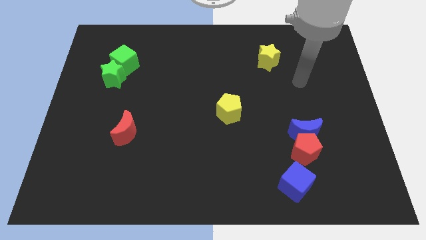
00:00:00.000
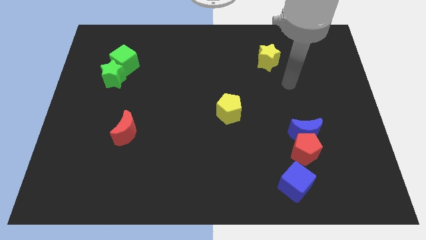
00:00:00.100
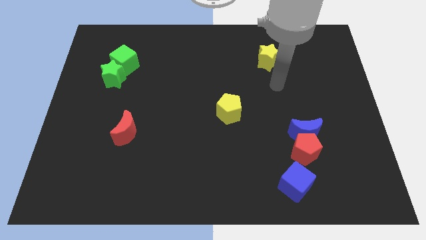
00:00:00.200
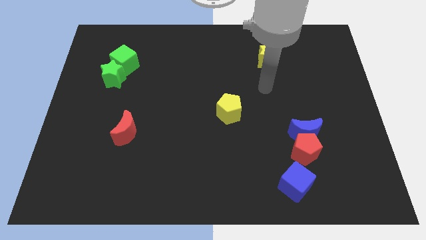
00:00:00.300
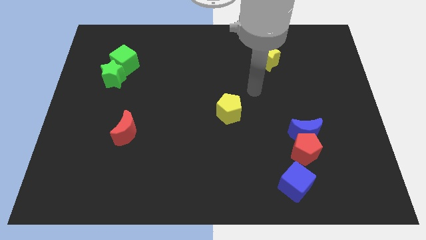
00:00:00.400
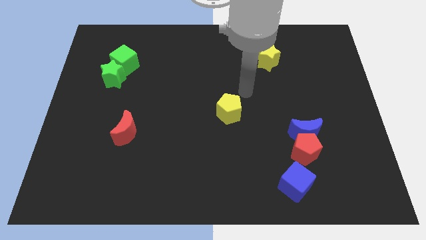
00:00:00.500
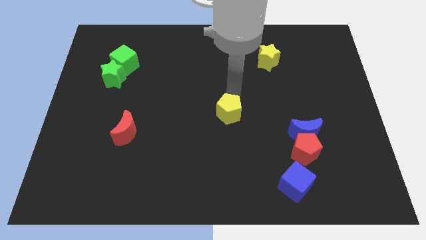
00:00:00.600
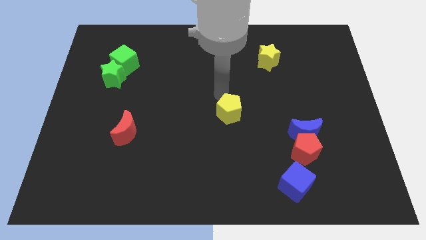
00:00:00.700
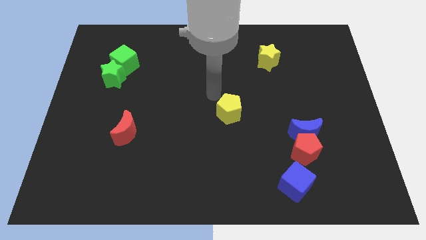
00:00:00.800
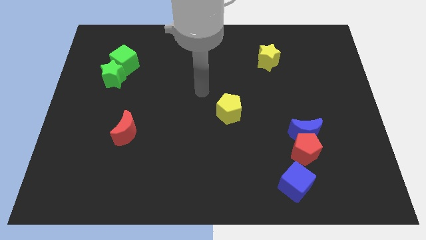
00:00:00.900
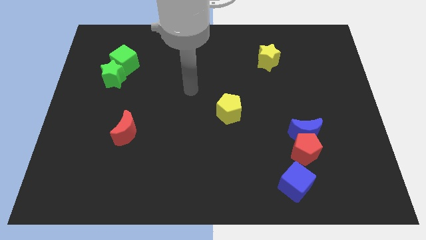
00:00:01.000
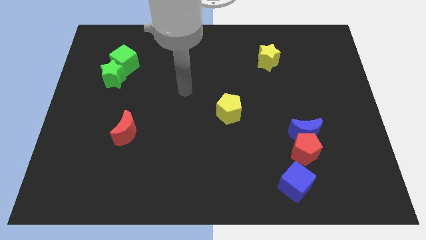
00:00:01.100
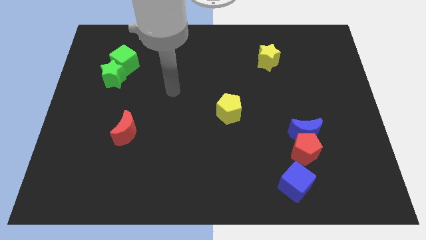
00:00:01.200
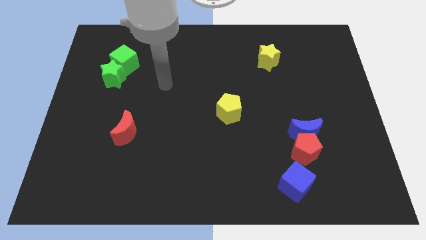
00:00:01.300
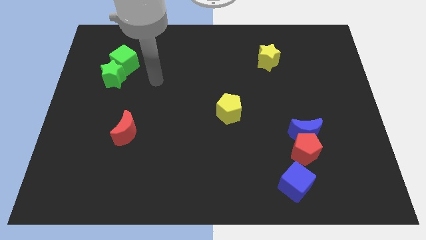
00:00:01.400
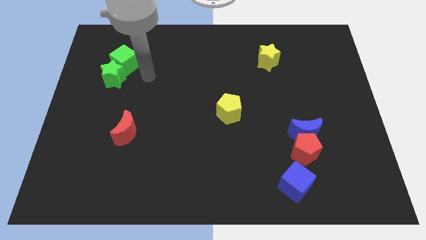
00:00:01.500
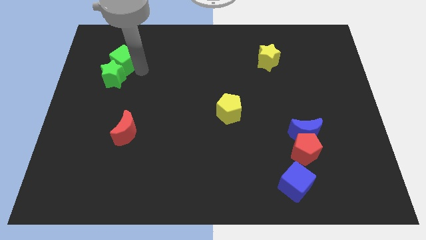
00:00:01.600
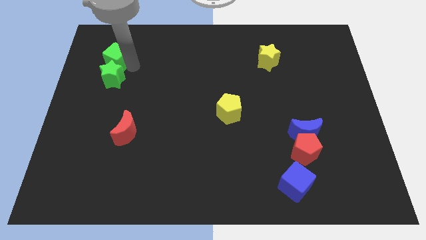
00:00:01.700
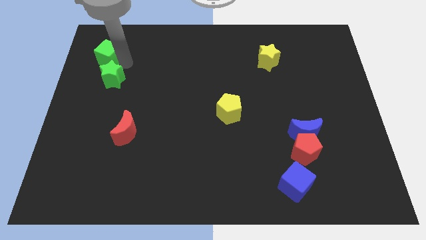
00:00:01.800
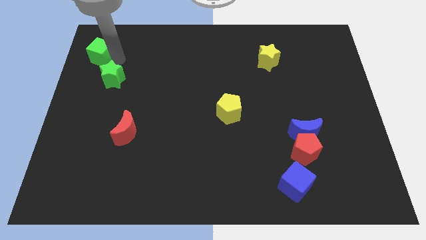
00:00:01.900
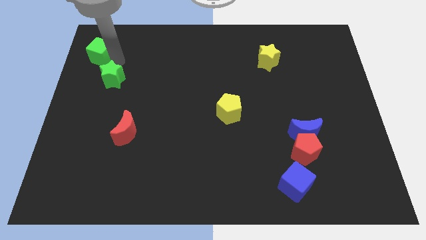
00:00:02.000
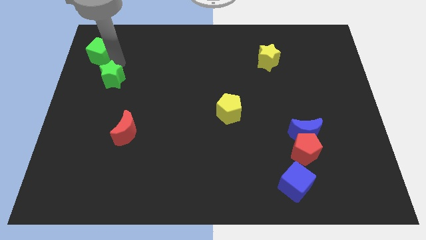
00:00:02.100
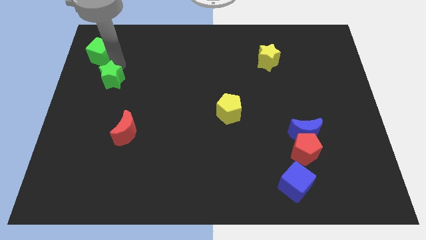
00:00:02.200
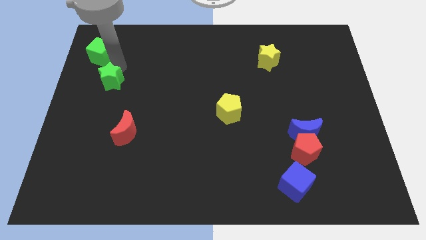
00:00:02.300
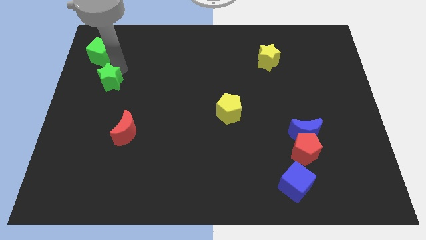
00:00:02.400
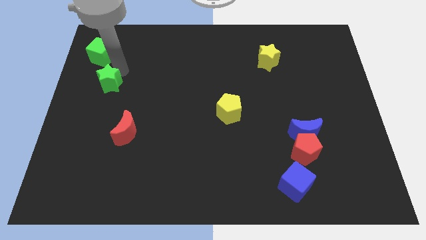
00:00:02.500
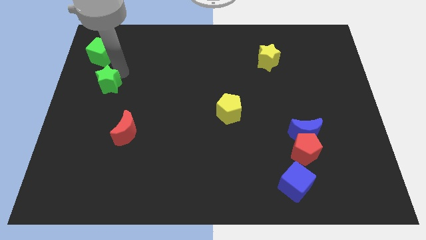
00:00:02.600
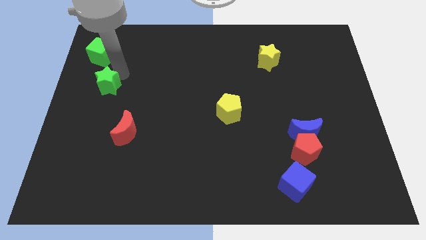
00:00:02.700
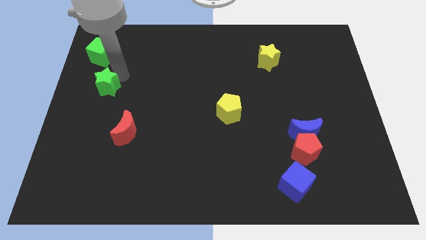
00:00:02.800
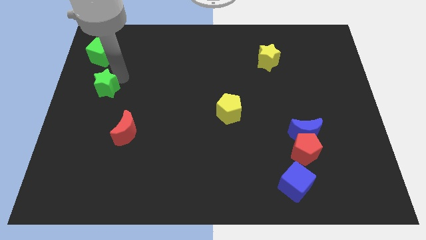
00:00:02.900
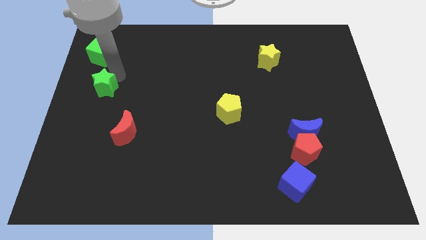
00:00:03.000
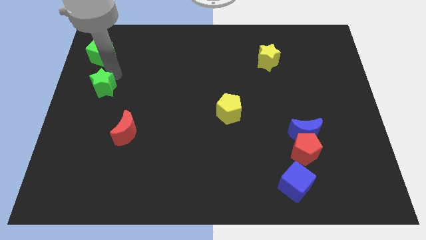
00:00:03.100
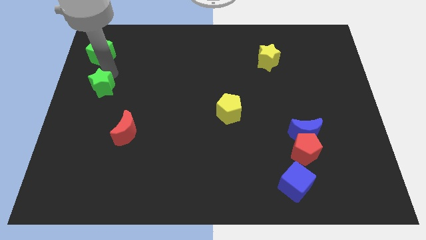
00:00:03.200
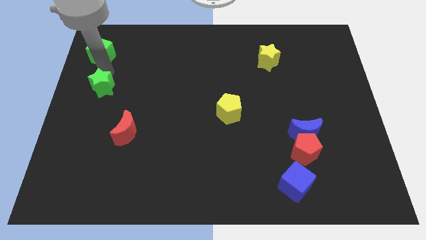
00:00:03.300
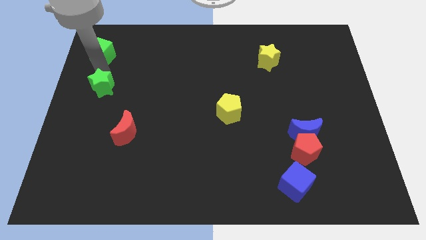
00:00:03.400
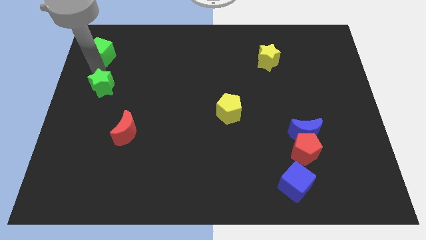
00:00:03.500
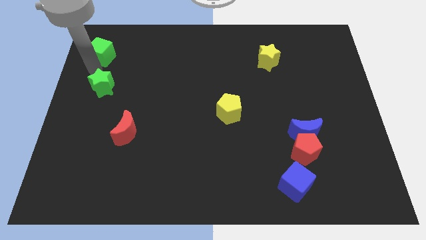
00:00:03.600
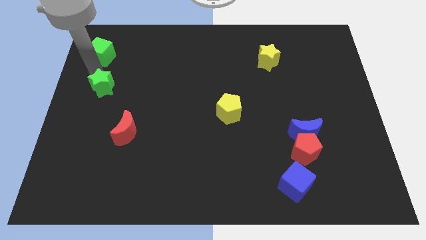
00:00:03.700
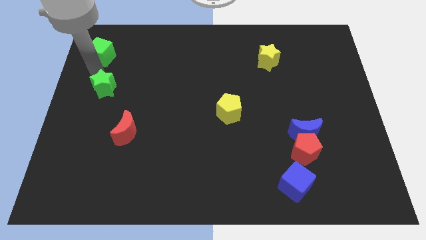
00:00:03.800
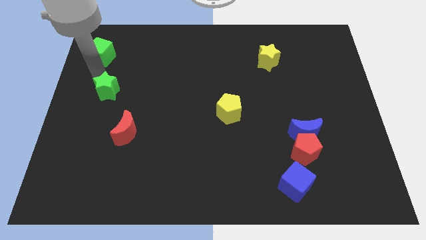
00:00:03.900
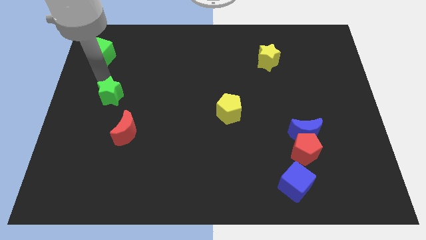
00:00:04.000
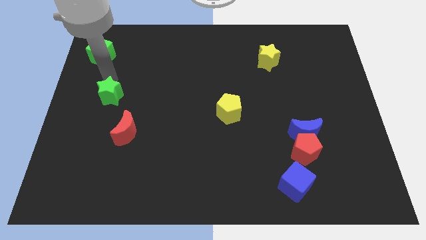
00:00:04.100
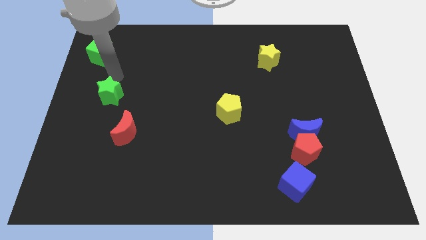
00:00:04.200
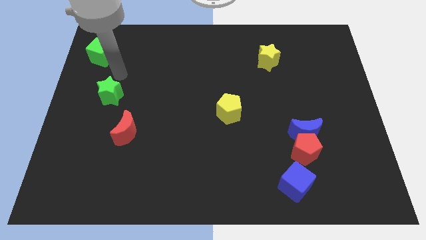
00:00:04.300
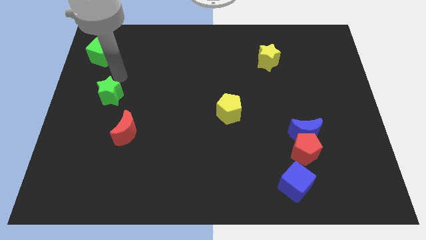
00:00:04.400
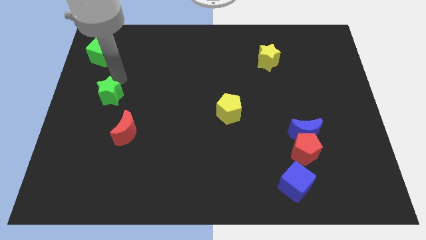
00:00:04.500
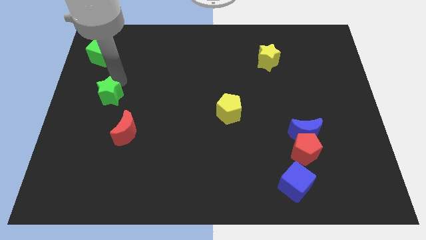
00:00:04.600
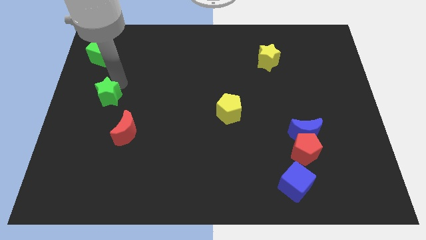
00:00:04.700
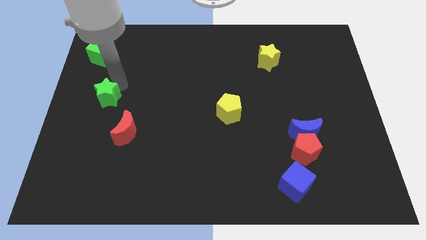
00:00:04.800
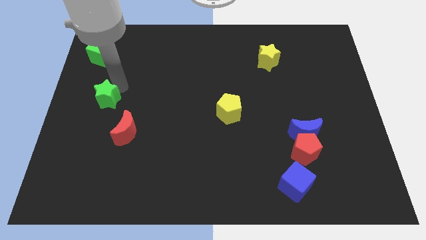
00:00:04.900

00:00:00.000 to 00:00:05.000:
slide the green star a bit downwards

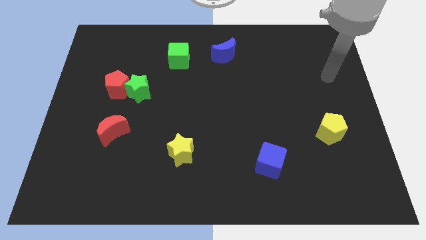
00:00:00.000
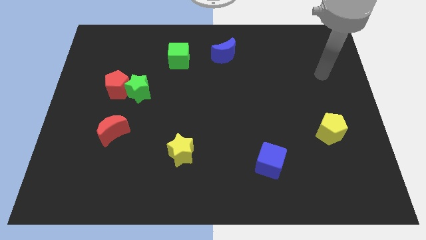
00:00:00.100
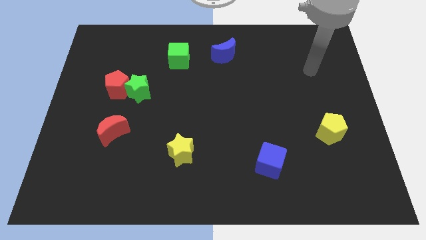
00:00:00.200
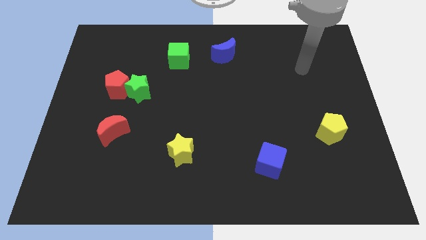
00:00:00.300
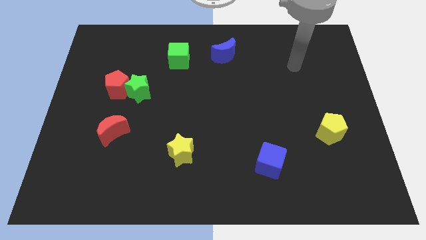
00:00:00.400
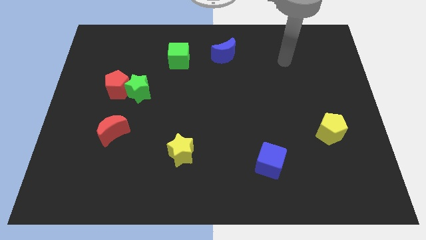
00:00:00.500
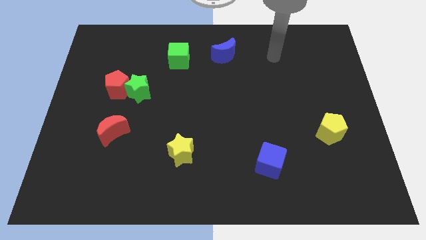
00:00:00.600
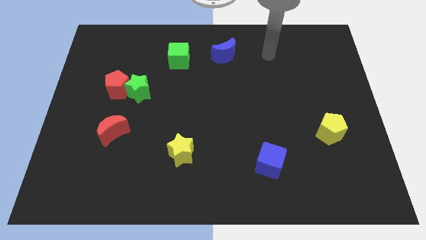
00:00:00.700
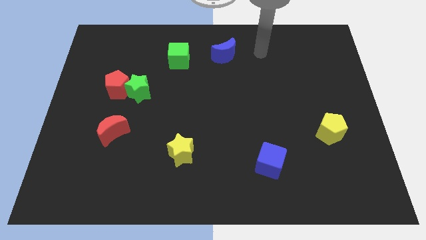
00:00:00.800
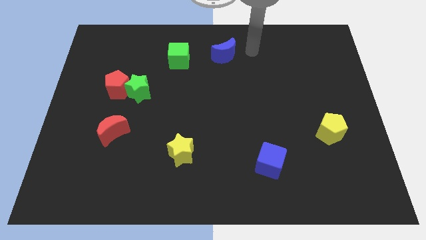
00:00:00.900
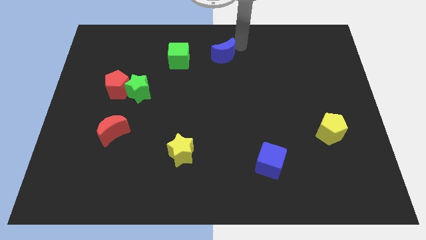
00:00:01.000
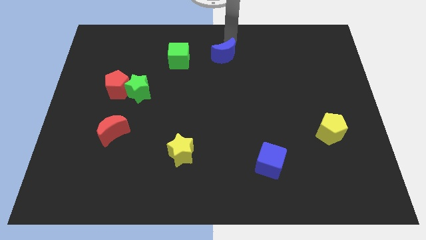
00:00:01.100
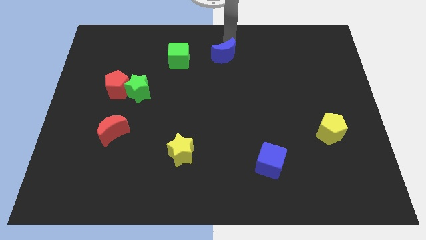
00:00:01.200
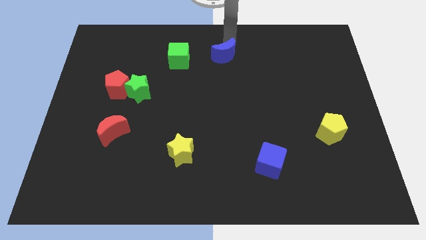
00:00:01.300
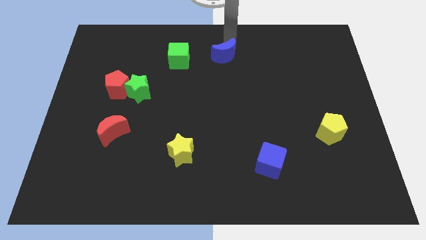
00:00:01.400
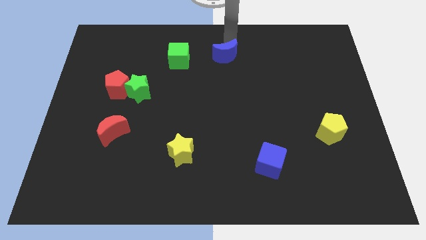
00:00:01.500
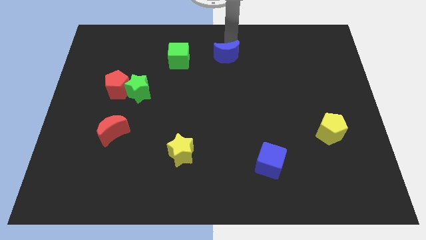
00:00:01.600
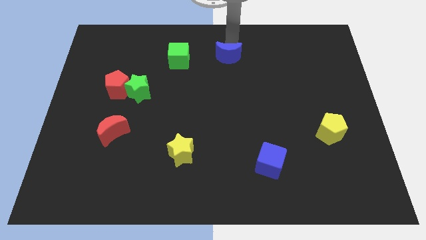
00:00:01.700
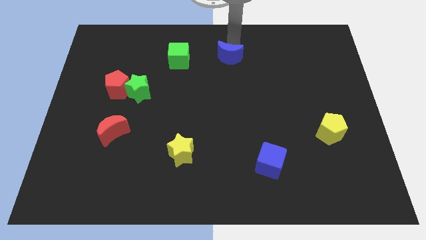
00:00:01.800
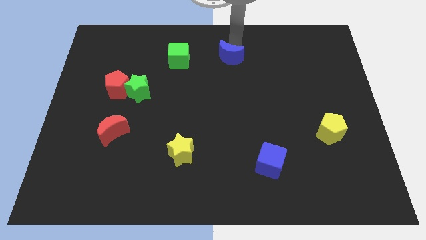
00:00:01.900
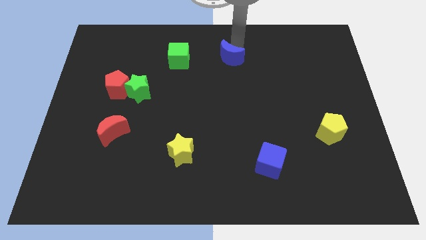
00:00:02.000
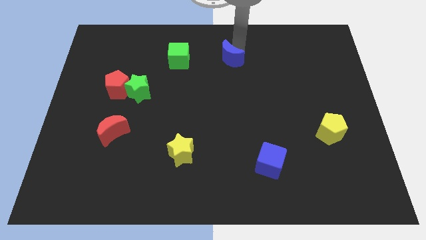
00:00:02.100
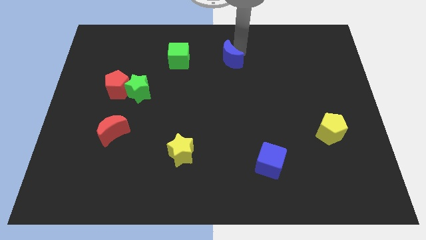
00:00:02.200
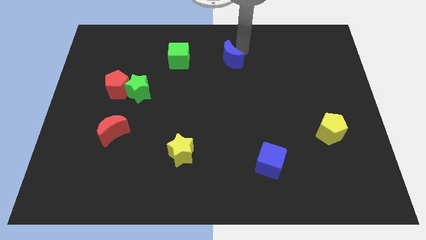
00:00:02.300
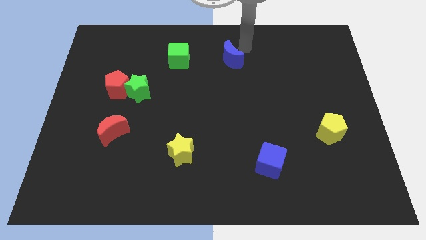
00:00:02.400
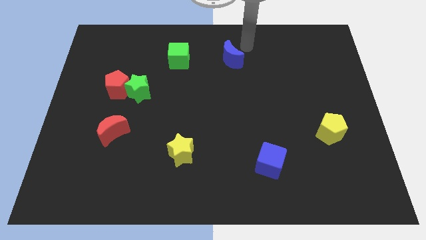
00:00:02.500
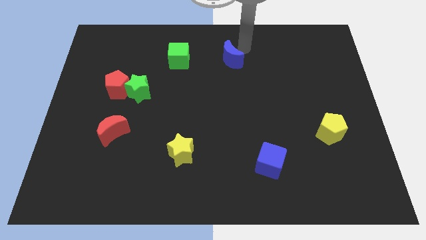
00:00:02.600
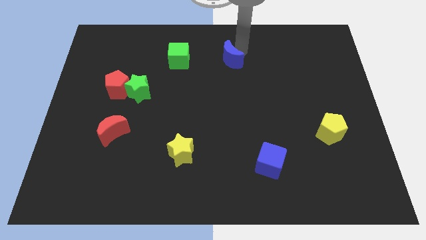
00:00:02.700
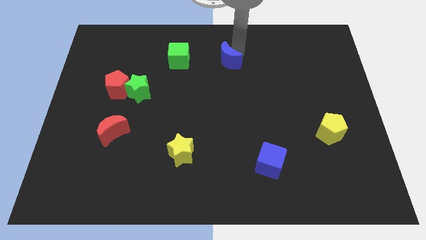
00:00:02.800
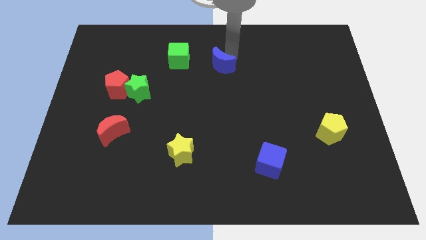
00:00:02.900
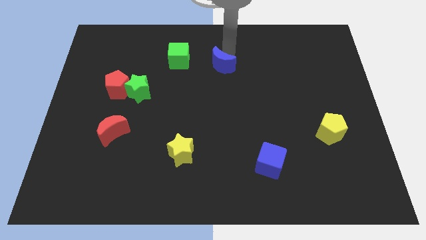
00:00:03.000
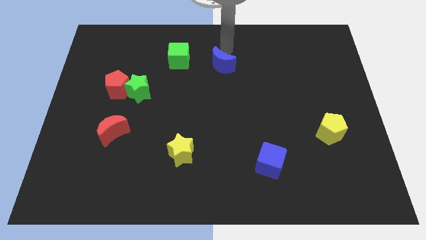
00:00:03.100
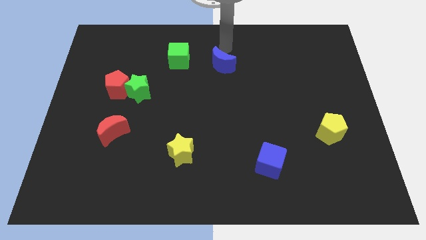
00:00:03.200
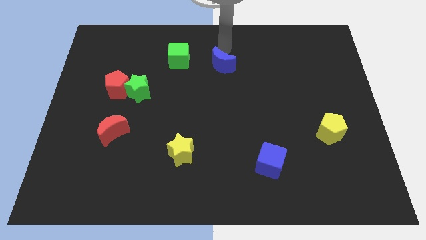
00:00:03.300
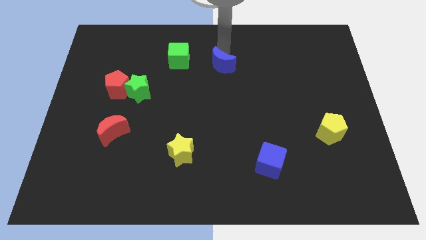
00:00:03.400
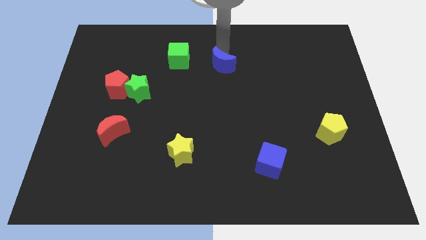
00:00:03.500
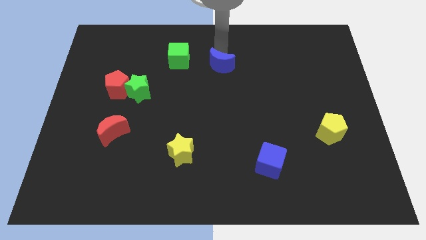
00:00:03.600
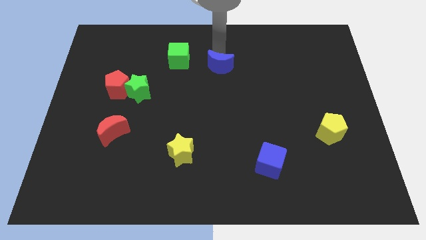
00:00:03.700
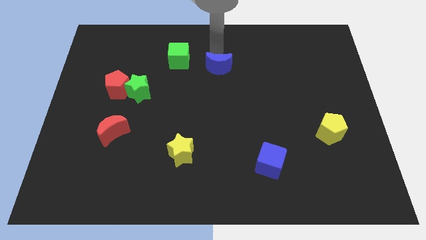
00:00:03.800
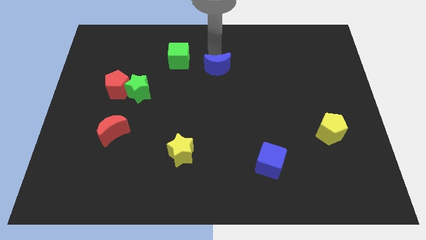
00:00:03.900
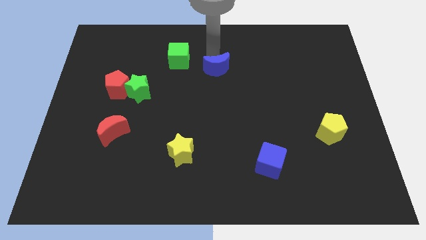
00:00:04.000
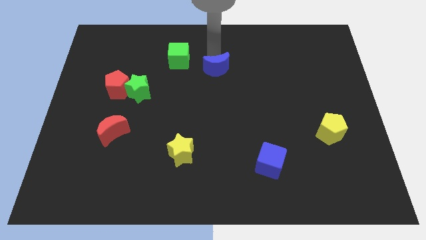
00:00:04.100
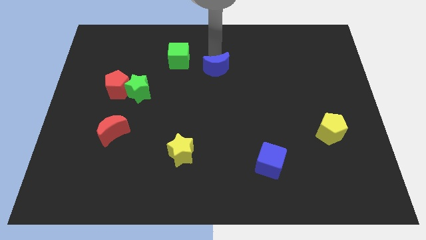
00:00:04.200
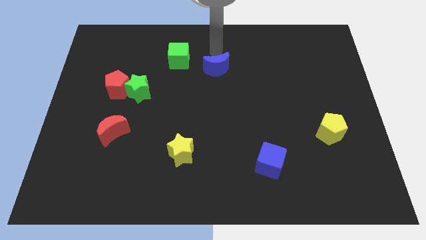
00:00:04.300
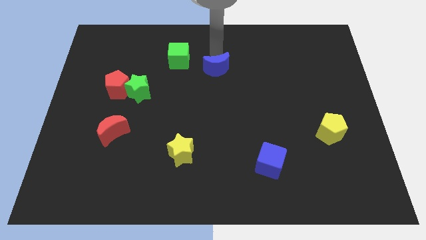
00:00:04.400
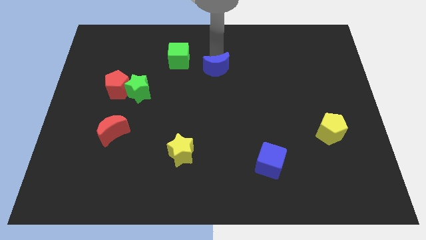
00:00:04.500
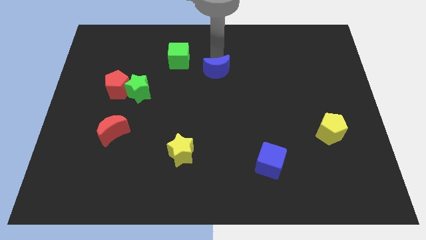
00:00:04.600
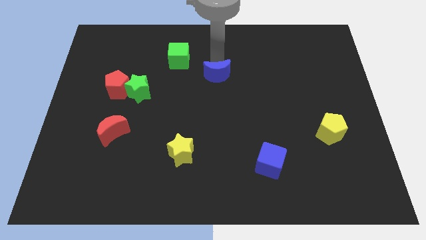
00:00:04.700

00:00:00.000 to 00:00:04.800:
slide the blue moon downwards somewhat
